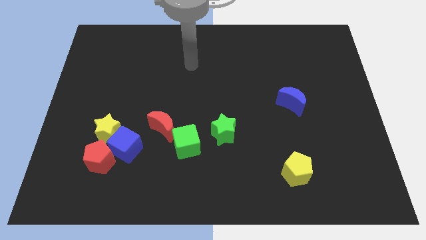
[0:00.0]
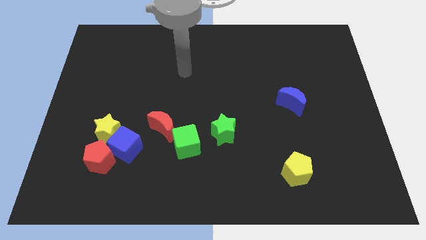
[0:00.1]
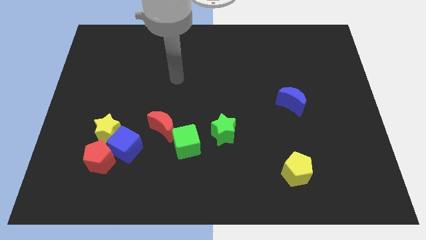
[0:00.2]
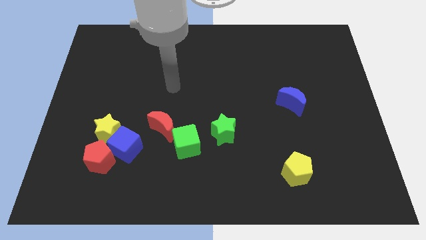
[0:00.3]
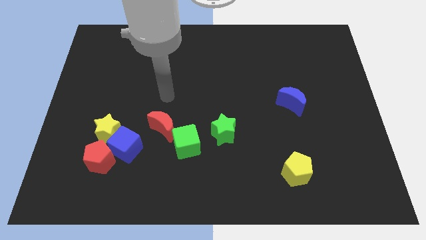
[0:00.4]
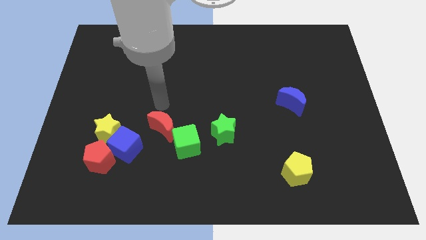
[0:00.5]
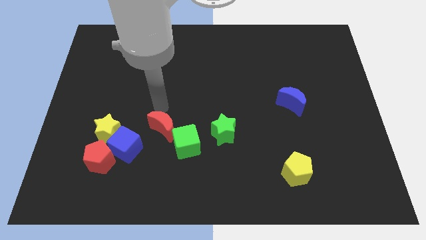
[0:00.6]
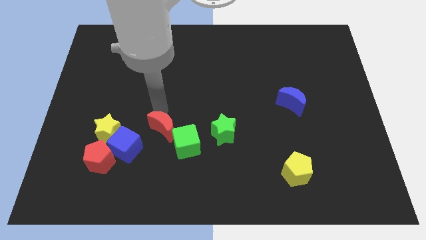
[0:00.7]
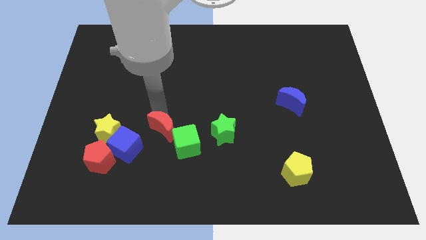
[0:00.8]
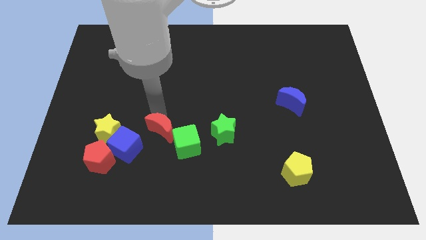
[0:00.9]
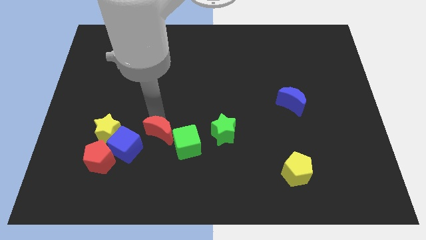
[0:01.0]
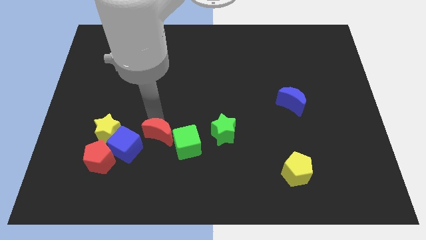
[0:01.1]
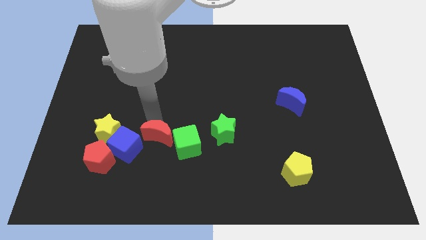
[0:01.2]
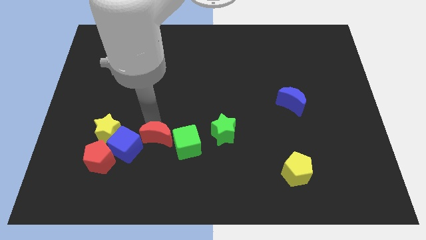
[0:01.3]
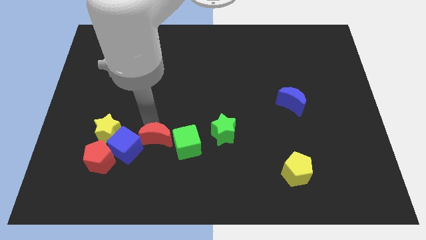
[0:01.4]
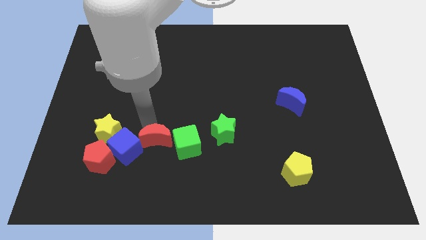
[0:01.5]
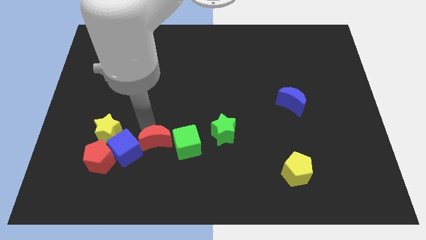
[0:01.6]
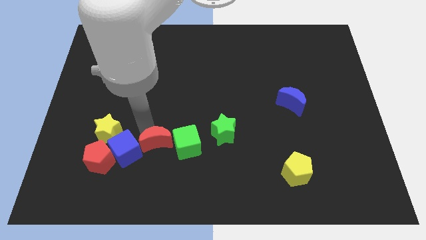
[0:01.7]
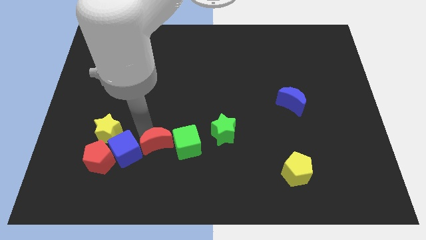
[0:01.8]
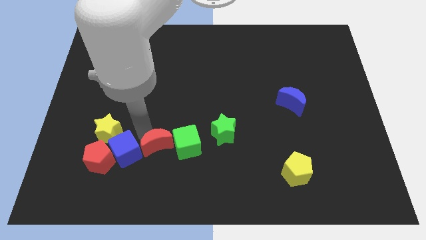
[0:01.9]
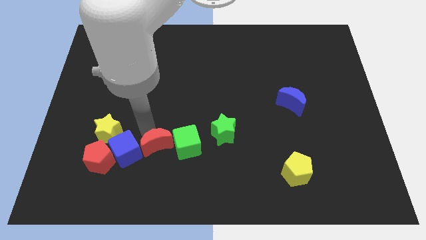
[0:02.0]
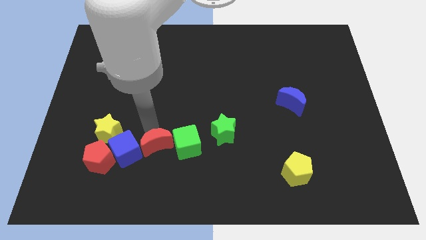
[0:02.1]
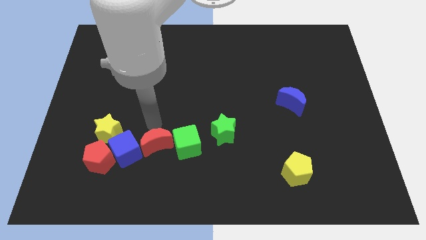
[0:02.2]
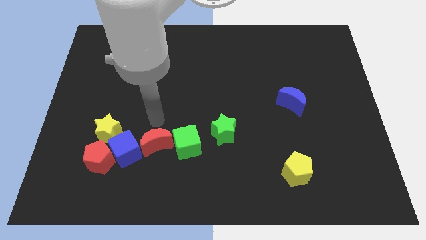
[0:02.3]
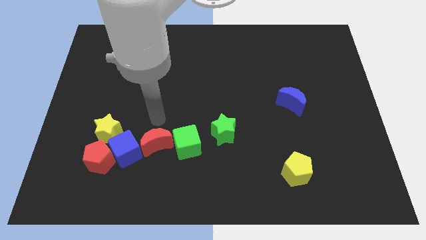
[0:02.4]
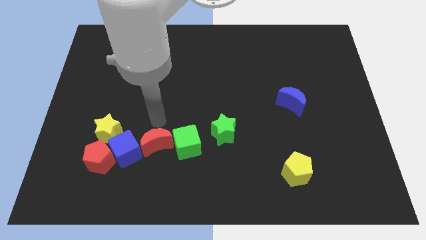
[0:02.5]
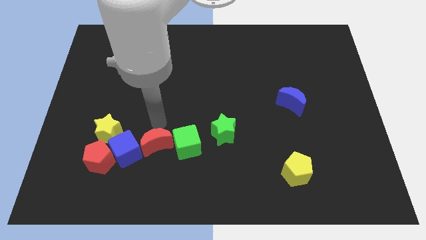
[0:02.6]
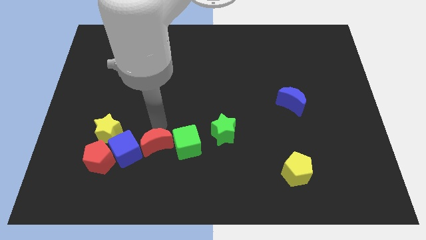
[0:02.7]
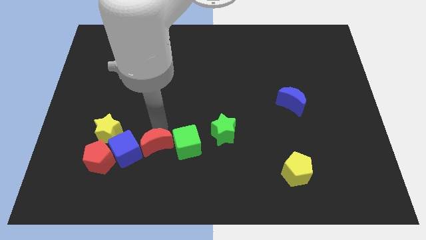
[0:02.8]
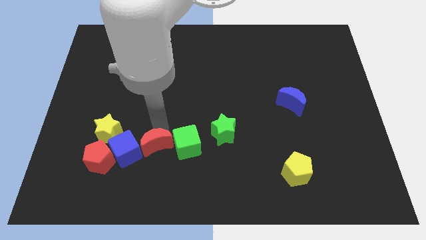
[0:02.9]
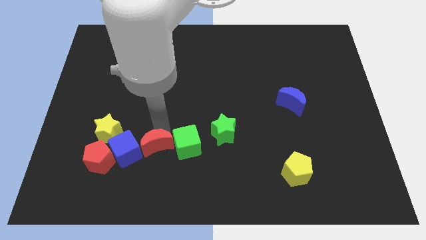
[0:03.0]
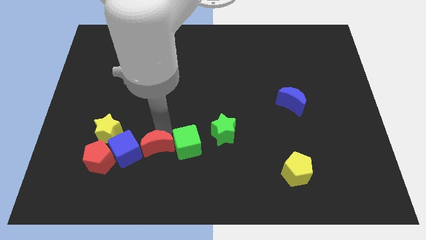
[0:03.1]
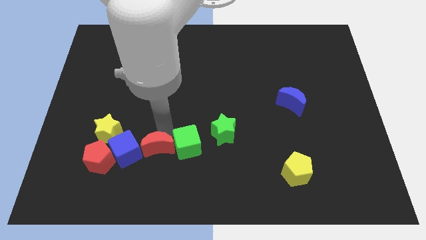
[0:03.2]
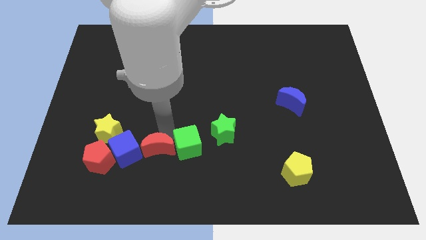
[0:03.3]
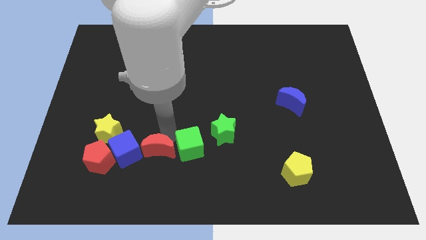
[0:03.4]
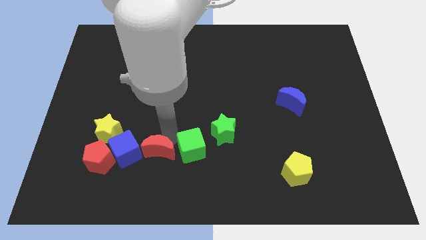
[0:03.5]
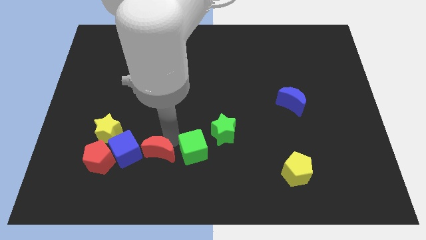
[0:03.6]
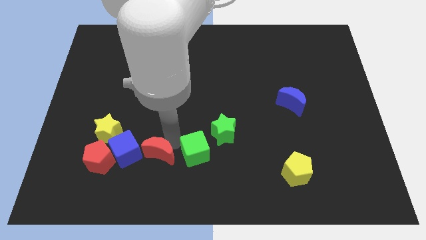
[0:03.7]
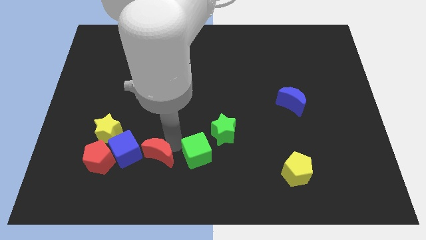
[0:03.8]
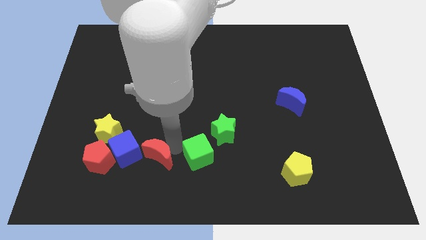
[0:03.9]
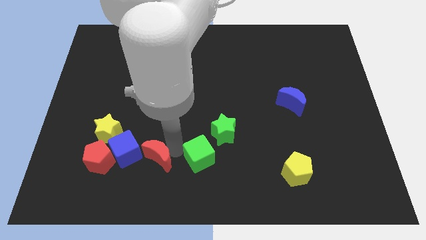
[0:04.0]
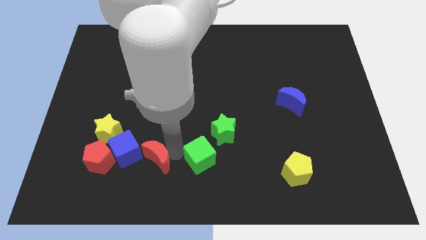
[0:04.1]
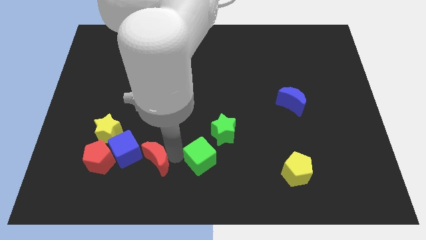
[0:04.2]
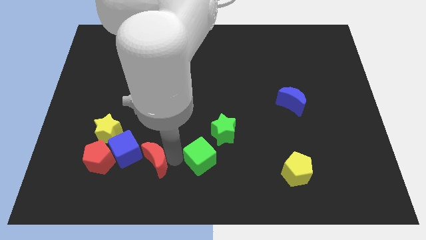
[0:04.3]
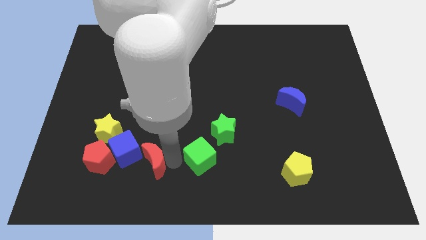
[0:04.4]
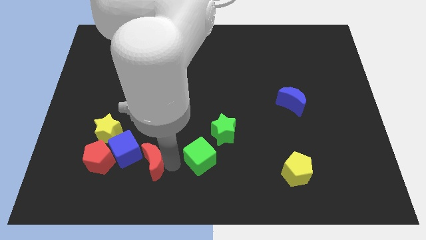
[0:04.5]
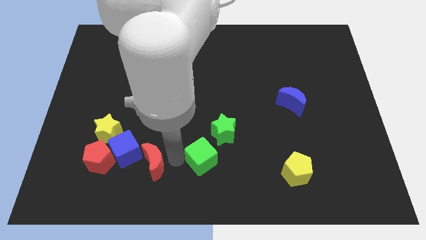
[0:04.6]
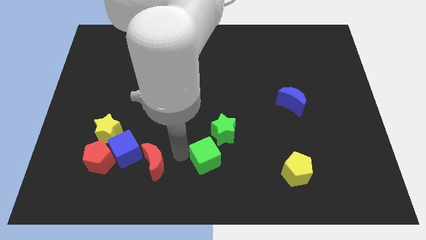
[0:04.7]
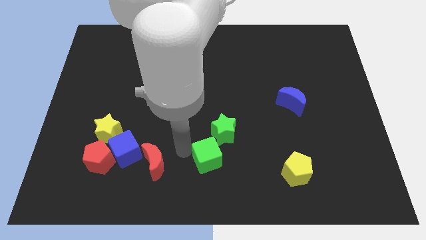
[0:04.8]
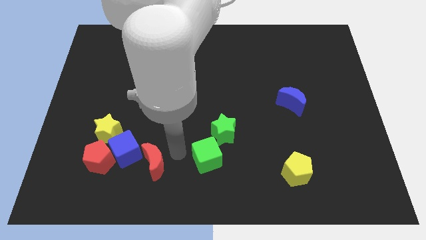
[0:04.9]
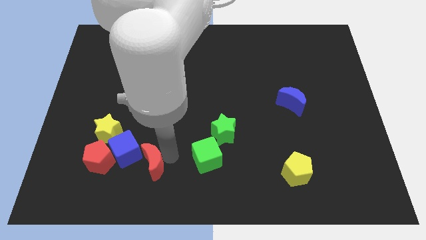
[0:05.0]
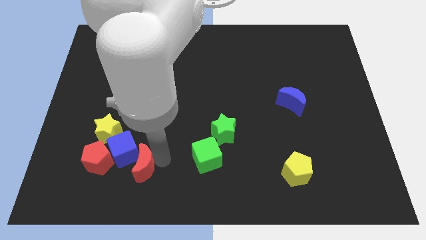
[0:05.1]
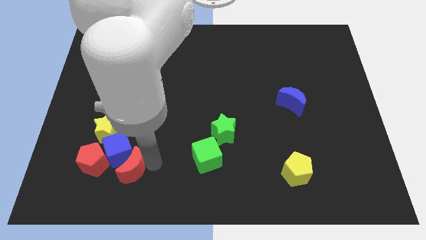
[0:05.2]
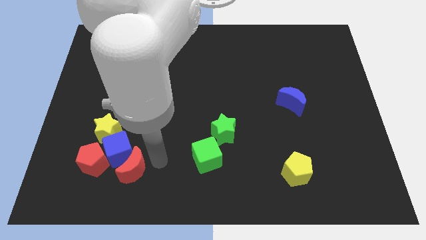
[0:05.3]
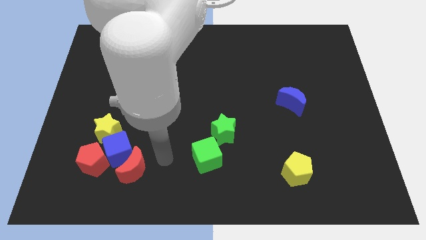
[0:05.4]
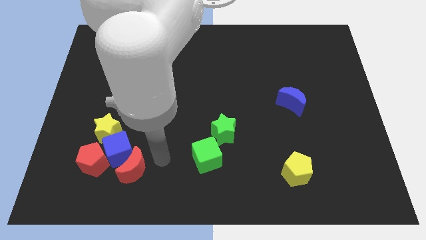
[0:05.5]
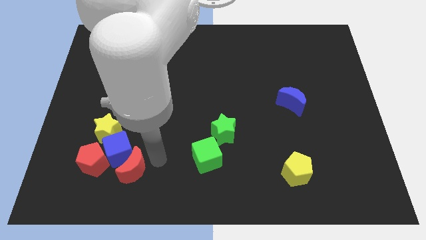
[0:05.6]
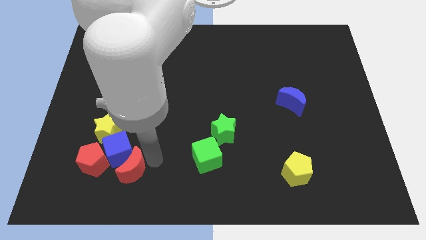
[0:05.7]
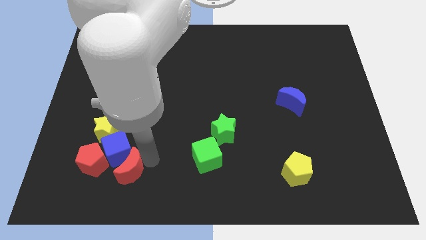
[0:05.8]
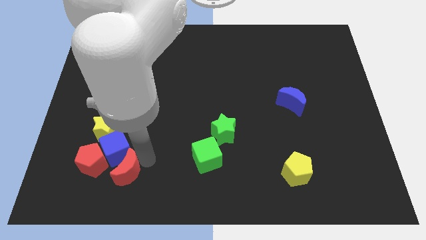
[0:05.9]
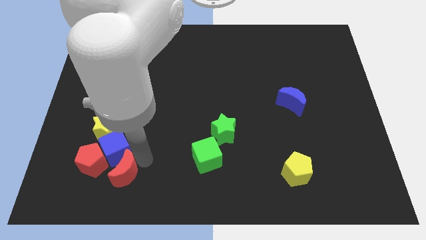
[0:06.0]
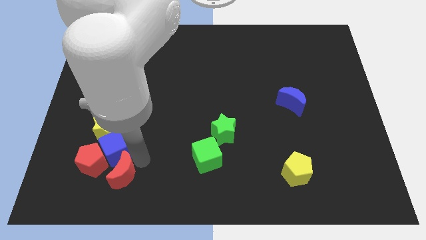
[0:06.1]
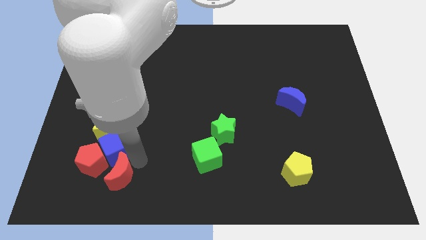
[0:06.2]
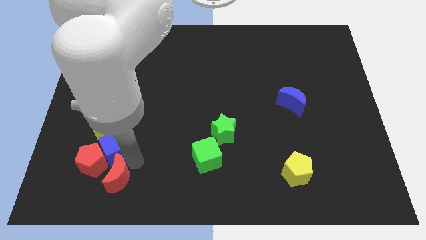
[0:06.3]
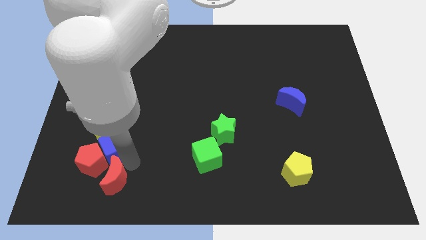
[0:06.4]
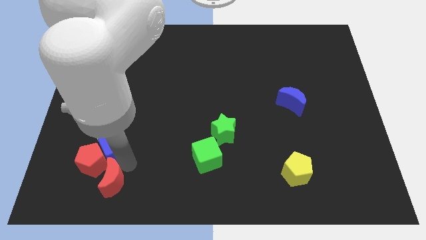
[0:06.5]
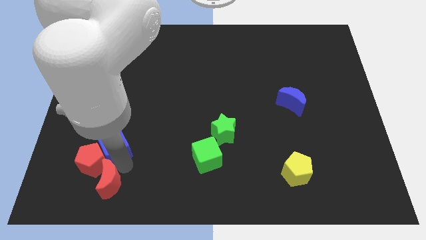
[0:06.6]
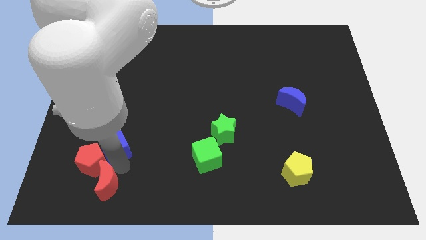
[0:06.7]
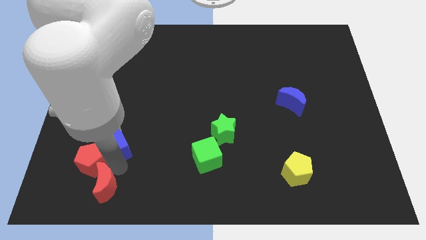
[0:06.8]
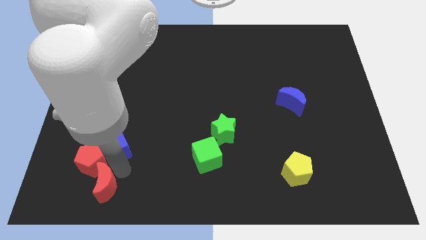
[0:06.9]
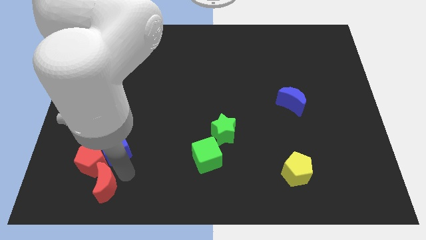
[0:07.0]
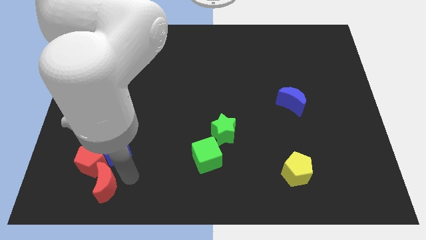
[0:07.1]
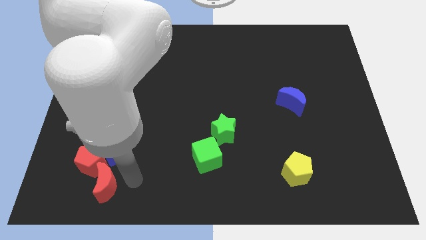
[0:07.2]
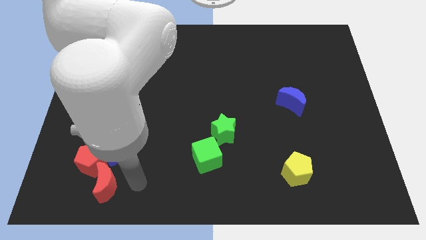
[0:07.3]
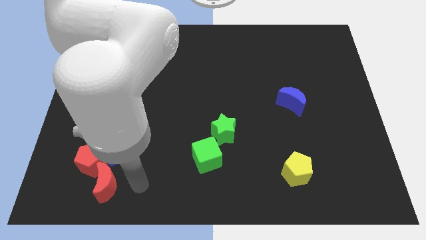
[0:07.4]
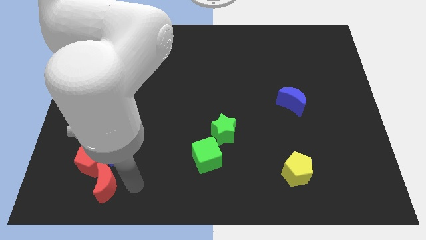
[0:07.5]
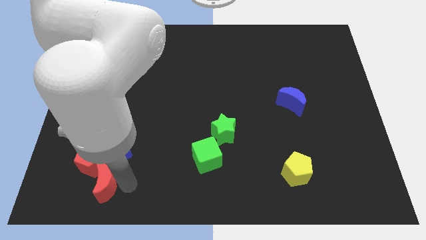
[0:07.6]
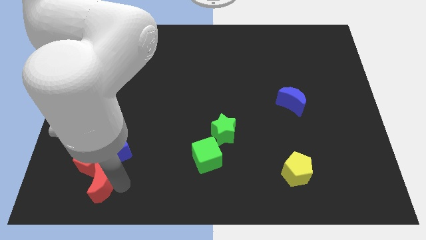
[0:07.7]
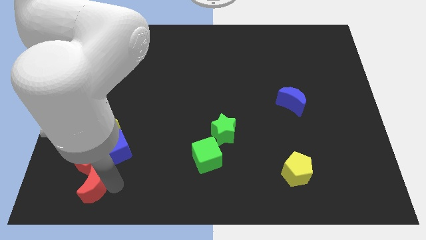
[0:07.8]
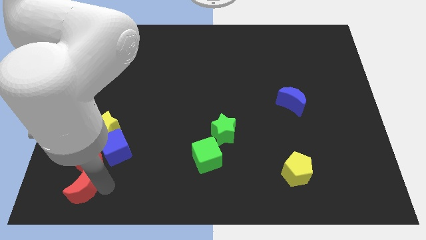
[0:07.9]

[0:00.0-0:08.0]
push the red moon to the bottom left of the red pentagon
